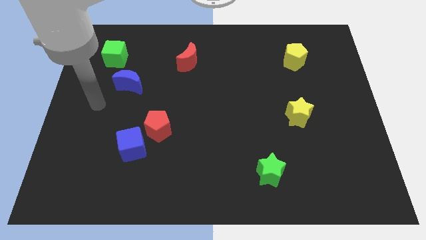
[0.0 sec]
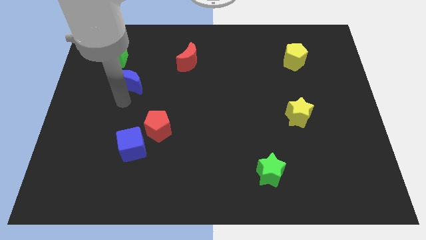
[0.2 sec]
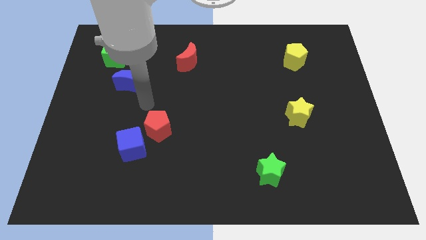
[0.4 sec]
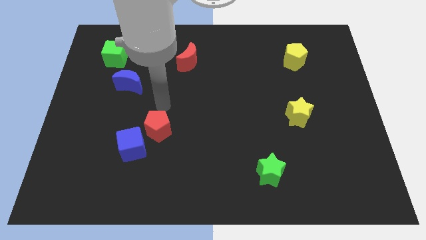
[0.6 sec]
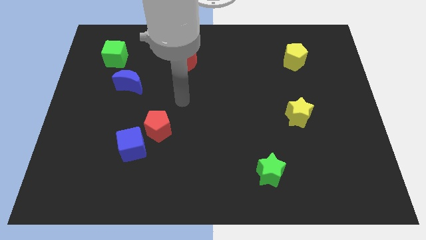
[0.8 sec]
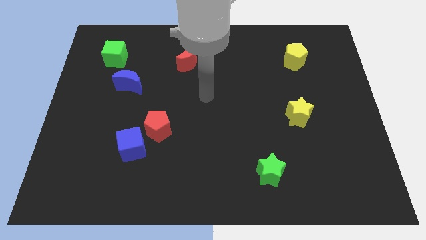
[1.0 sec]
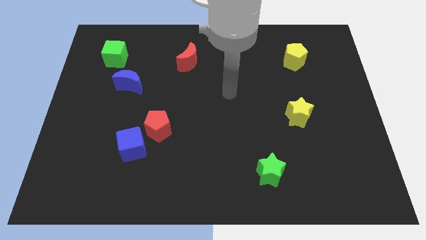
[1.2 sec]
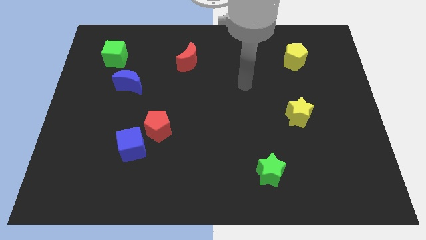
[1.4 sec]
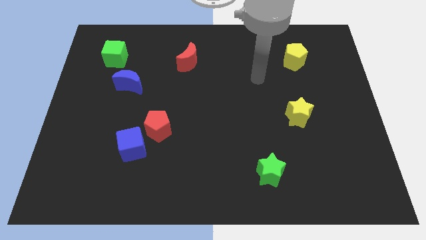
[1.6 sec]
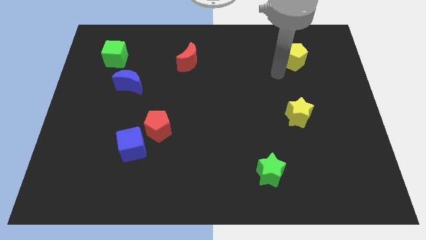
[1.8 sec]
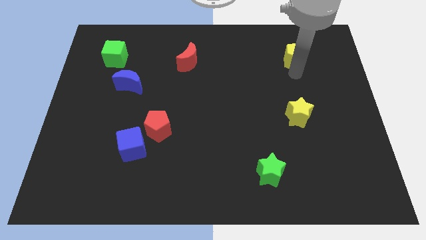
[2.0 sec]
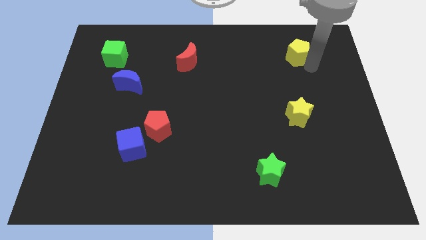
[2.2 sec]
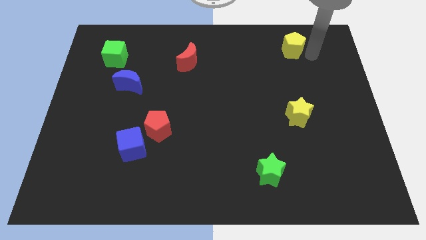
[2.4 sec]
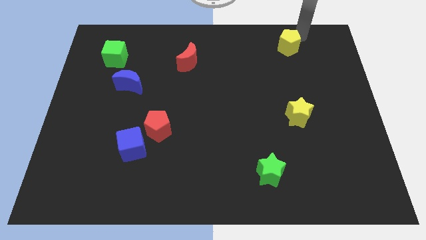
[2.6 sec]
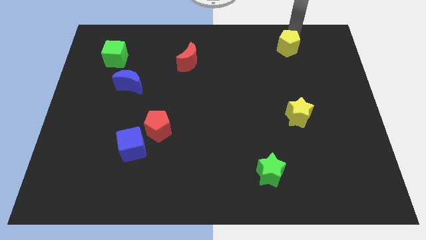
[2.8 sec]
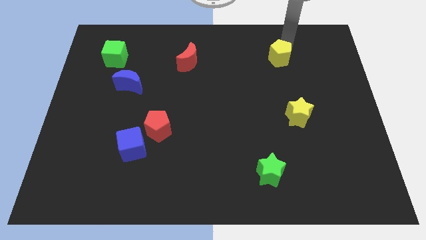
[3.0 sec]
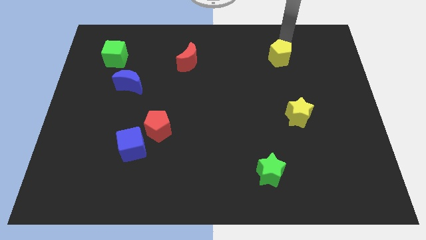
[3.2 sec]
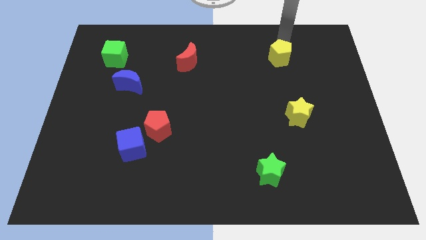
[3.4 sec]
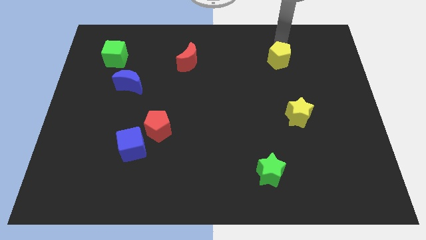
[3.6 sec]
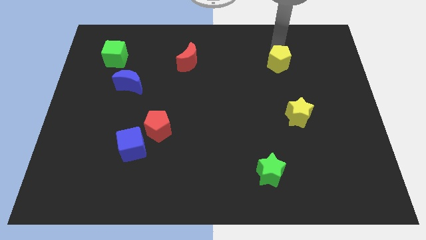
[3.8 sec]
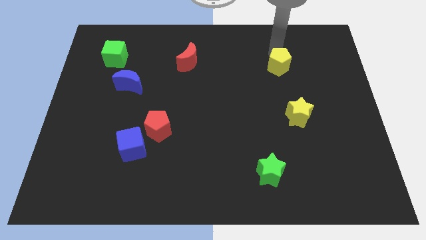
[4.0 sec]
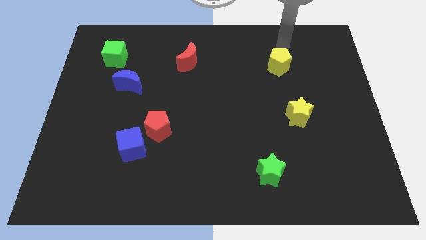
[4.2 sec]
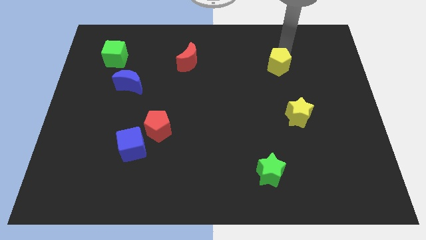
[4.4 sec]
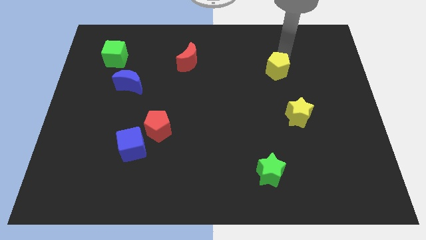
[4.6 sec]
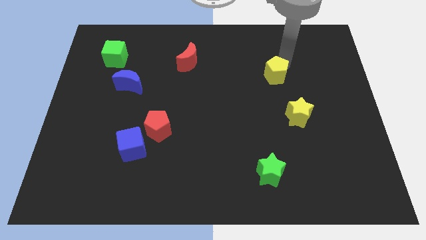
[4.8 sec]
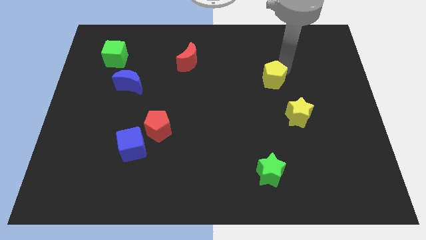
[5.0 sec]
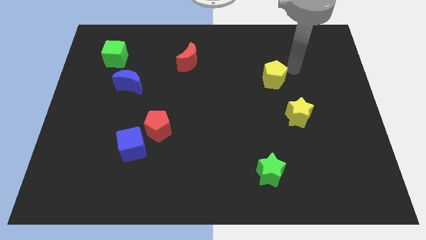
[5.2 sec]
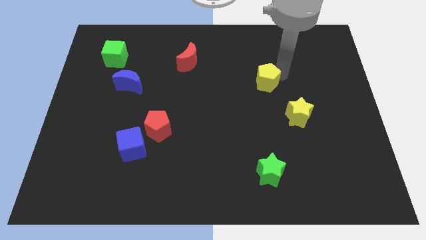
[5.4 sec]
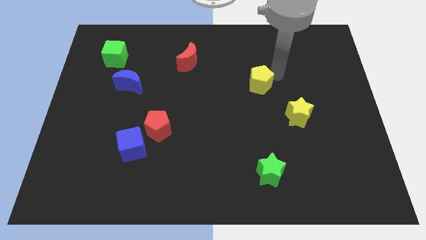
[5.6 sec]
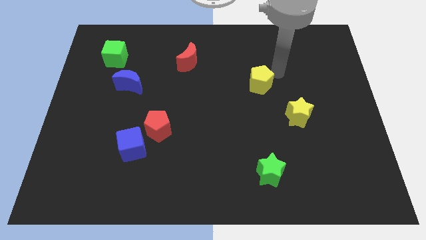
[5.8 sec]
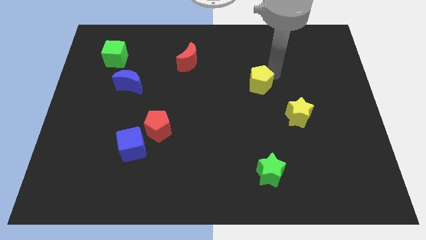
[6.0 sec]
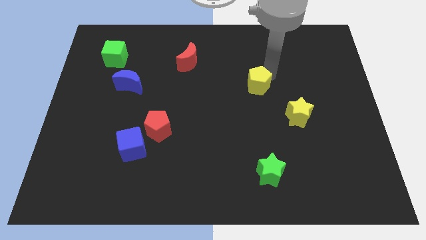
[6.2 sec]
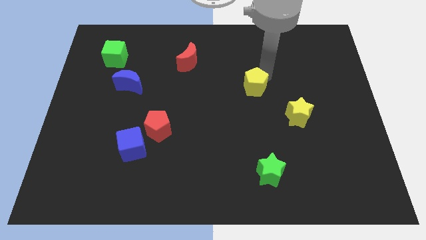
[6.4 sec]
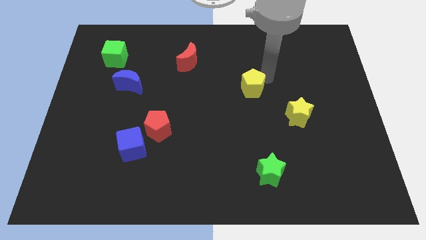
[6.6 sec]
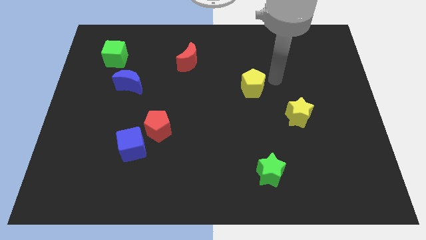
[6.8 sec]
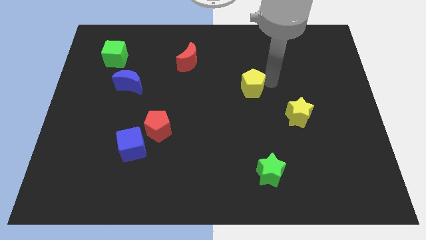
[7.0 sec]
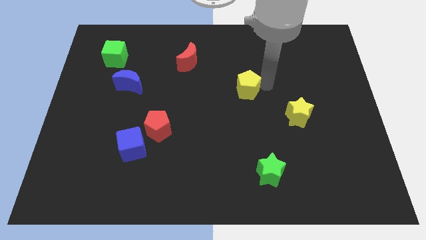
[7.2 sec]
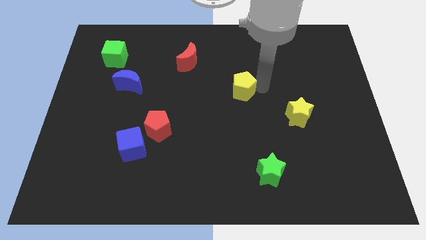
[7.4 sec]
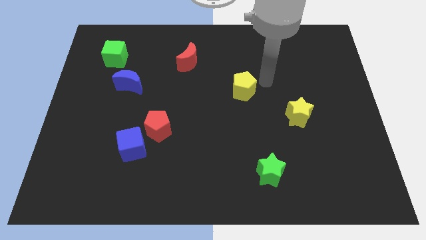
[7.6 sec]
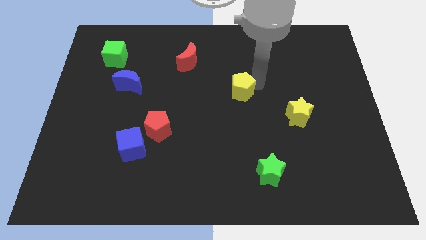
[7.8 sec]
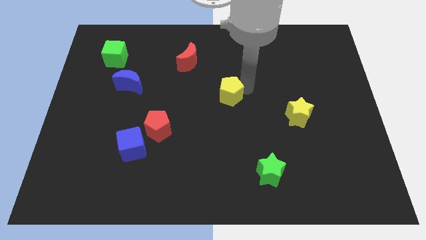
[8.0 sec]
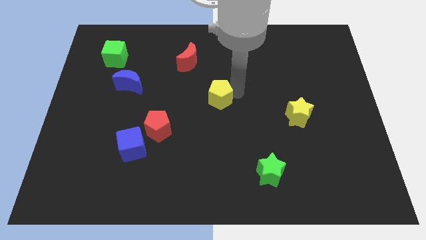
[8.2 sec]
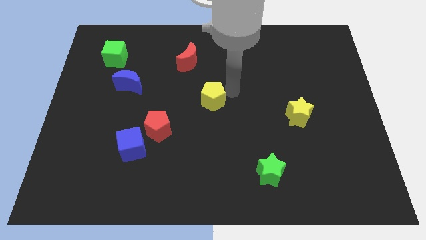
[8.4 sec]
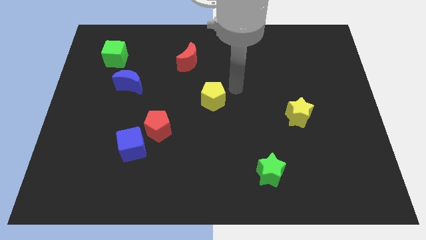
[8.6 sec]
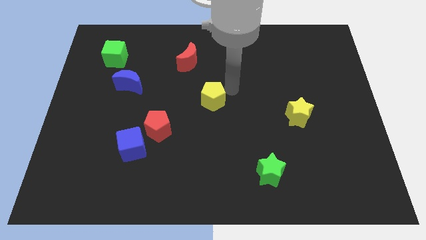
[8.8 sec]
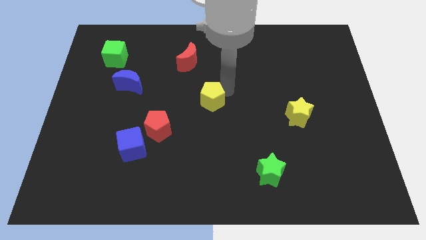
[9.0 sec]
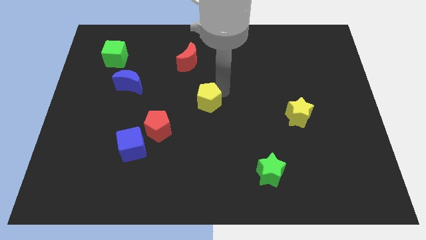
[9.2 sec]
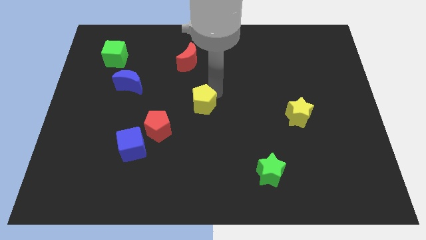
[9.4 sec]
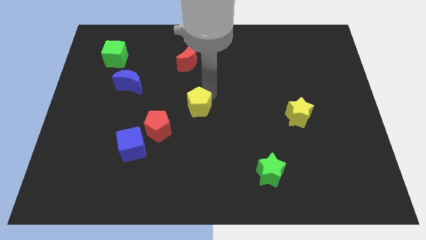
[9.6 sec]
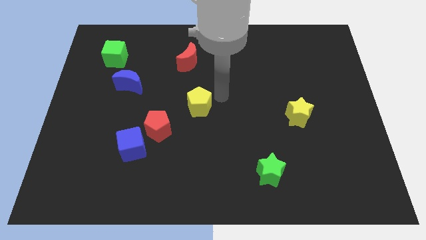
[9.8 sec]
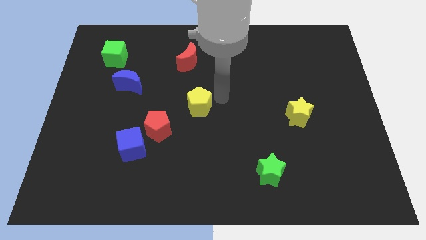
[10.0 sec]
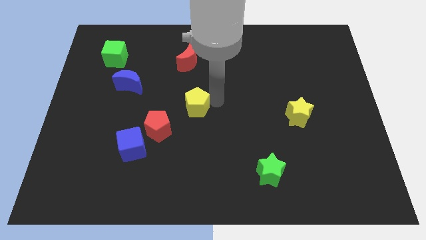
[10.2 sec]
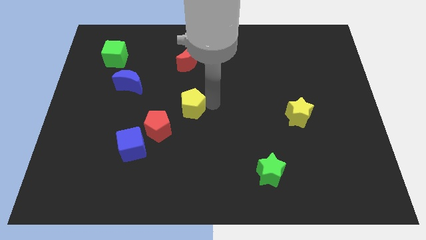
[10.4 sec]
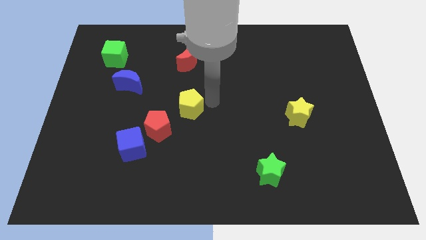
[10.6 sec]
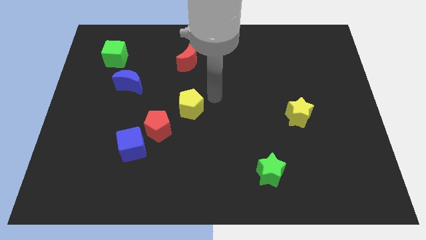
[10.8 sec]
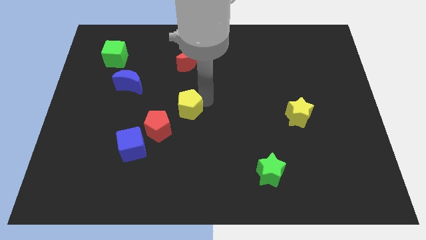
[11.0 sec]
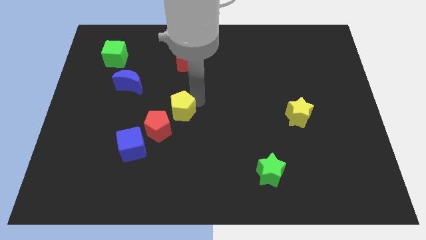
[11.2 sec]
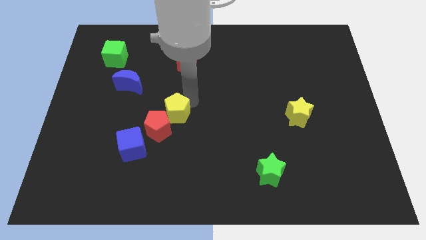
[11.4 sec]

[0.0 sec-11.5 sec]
push the yellow pentagon to the red pentagon

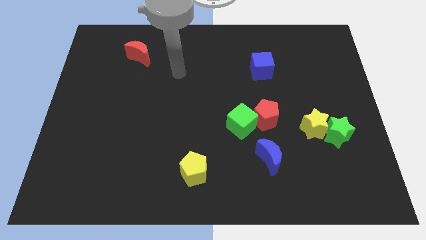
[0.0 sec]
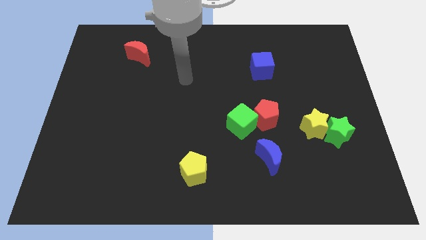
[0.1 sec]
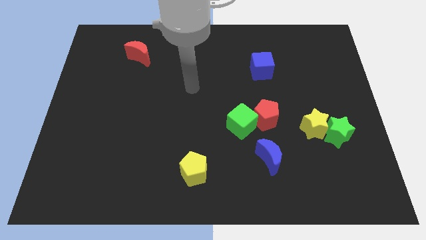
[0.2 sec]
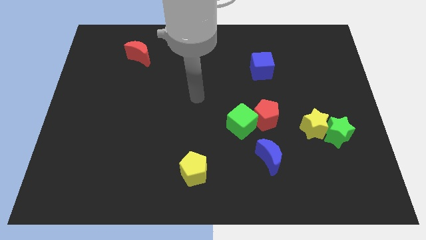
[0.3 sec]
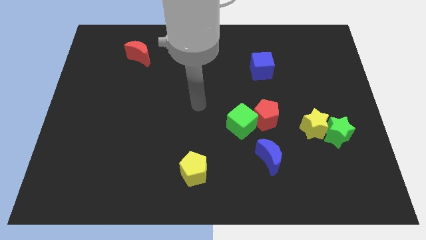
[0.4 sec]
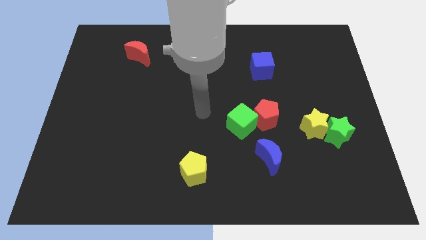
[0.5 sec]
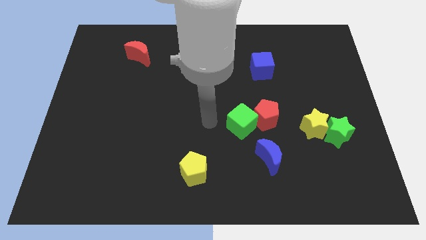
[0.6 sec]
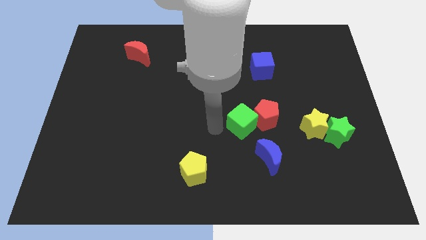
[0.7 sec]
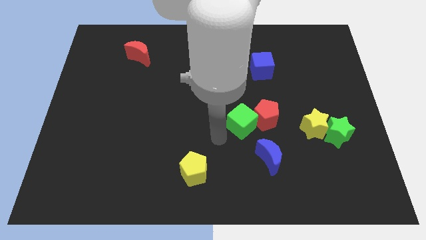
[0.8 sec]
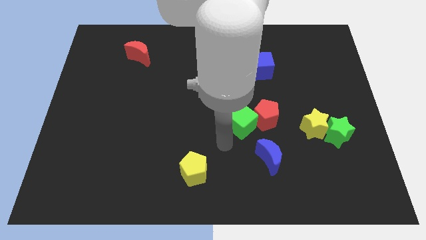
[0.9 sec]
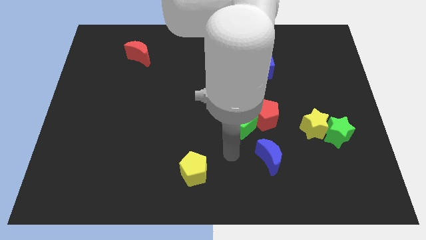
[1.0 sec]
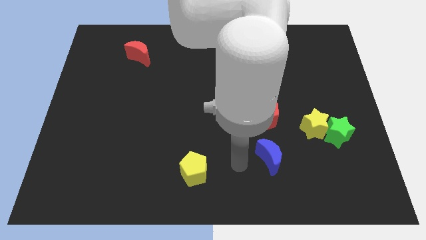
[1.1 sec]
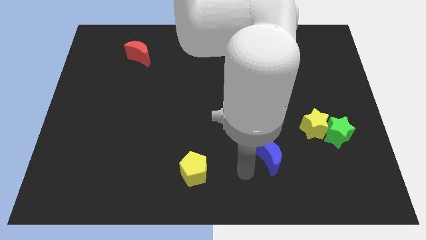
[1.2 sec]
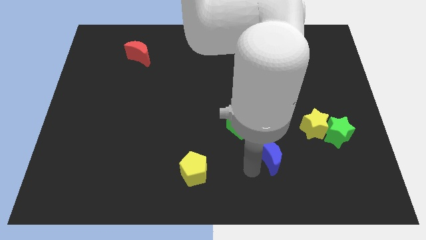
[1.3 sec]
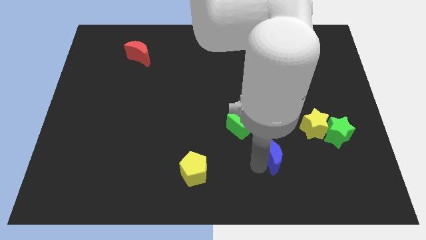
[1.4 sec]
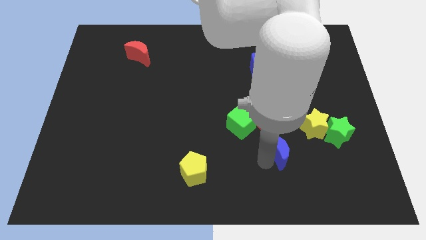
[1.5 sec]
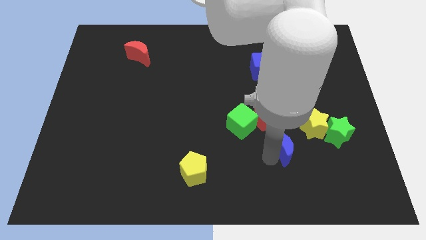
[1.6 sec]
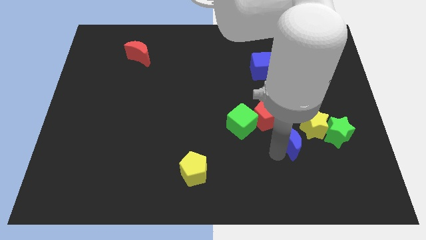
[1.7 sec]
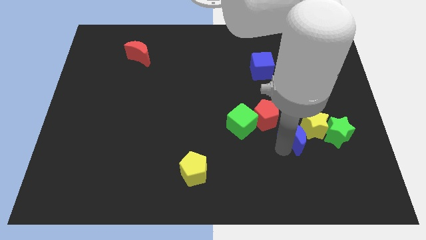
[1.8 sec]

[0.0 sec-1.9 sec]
slide the blue moon next to the yellow star

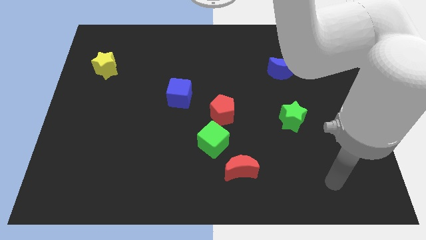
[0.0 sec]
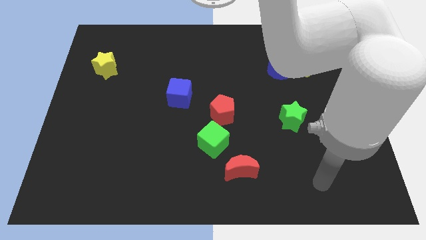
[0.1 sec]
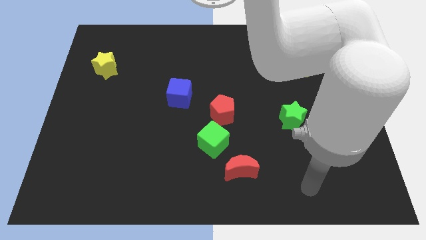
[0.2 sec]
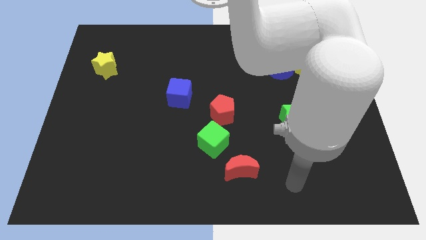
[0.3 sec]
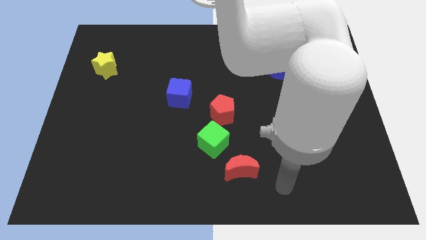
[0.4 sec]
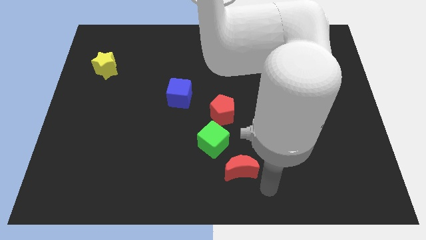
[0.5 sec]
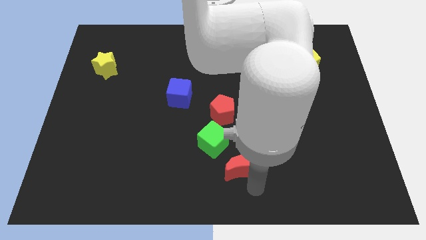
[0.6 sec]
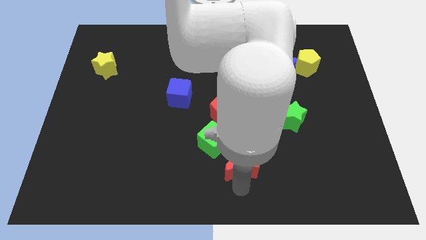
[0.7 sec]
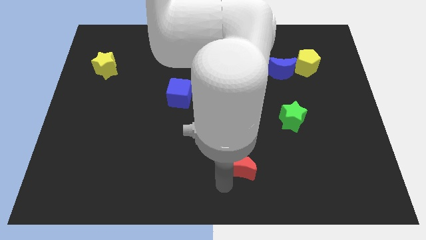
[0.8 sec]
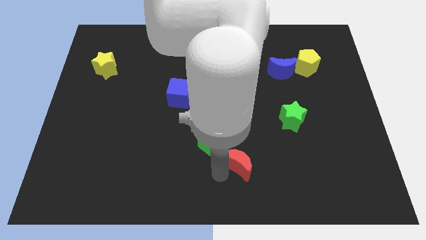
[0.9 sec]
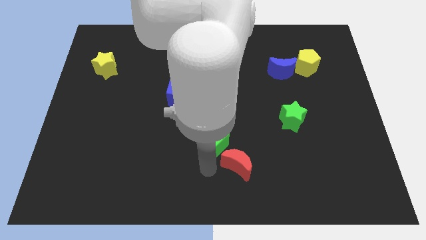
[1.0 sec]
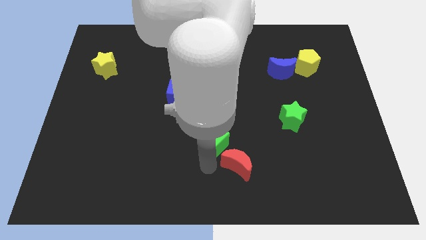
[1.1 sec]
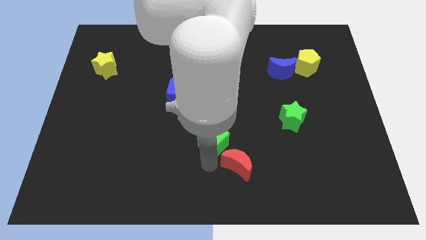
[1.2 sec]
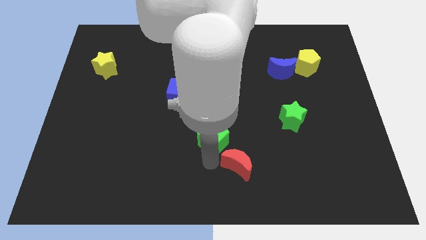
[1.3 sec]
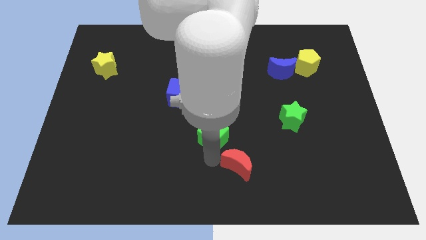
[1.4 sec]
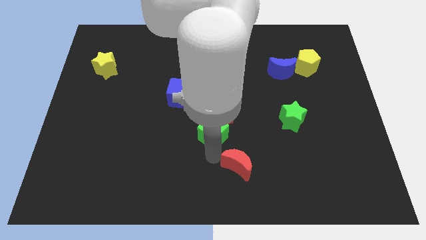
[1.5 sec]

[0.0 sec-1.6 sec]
push the green cube close to the red pentagon
